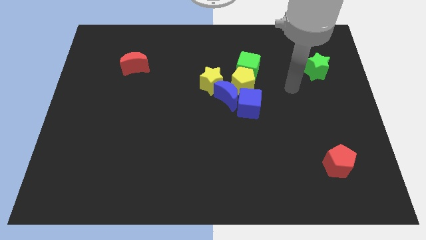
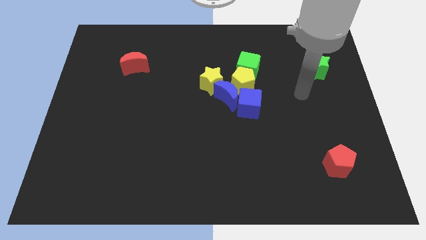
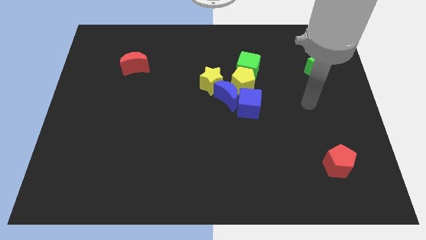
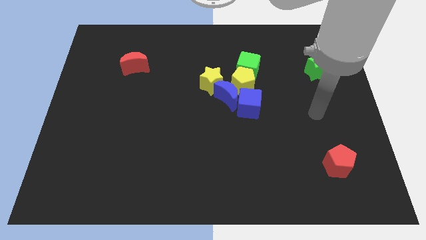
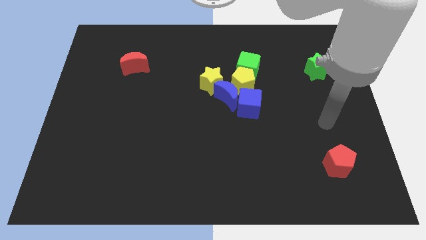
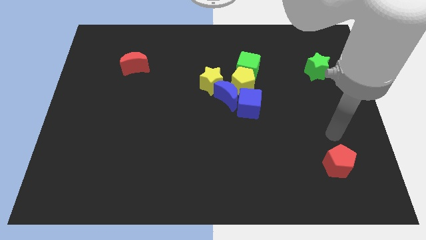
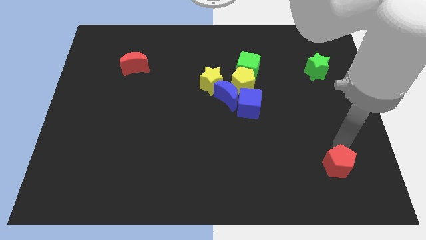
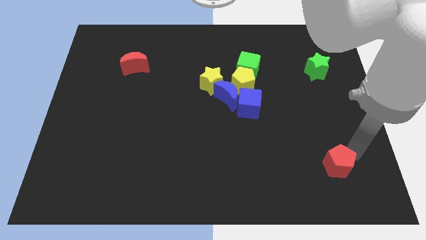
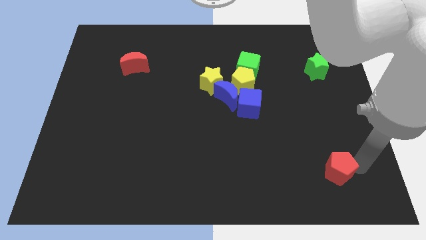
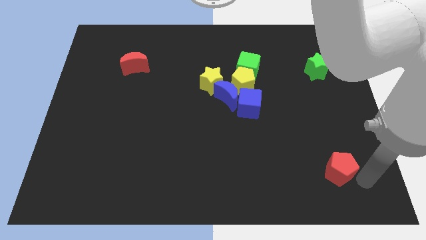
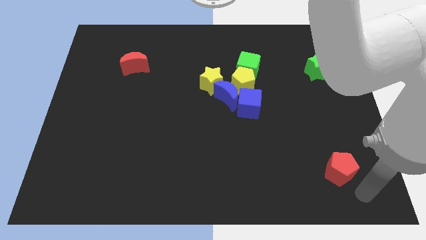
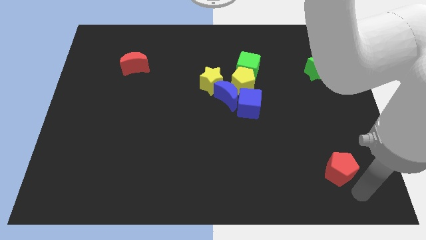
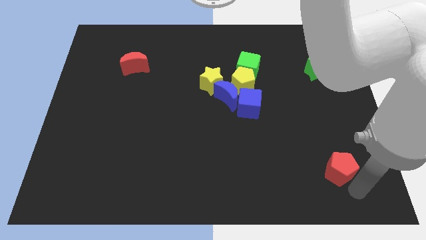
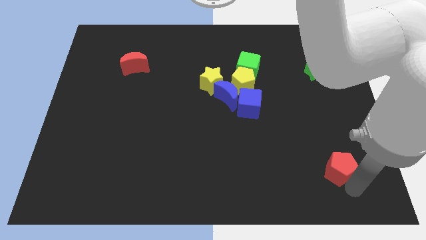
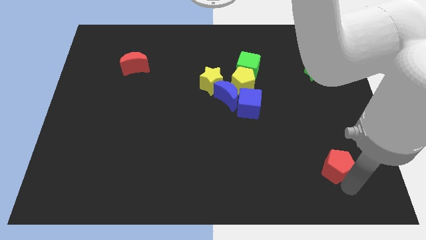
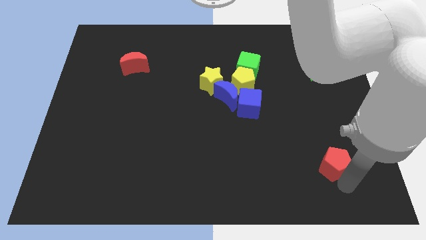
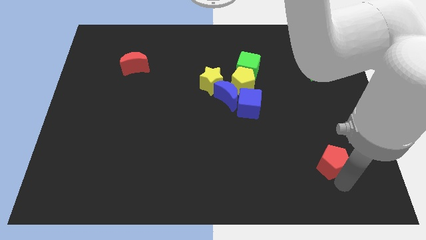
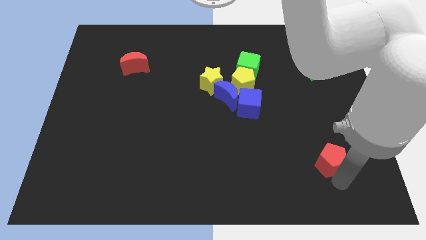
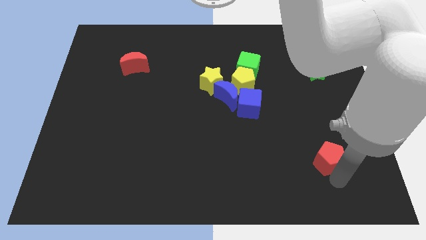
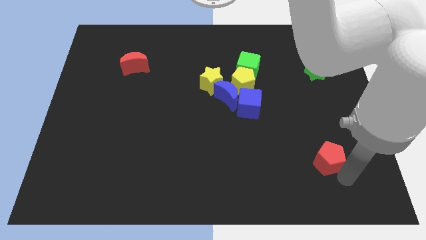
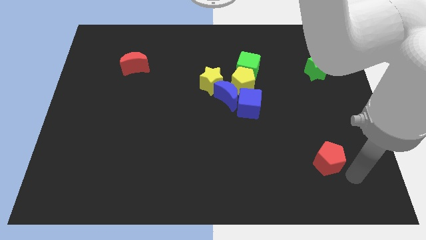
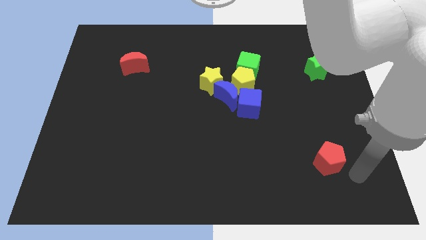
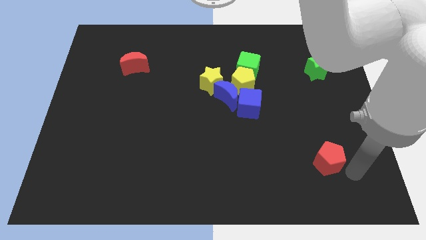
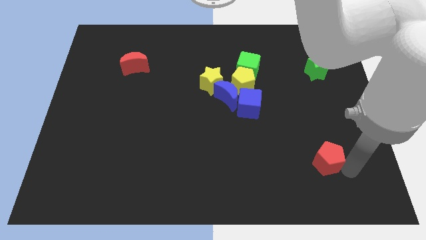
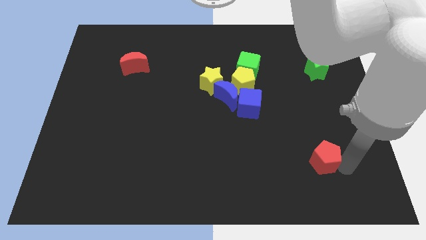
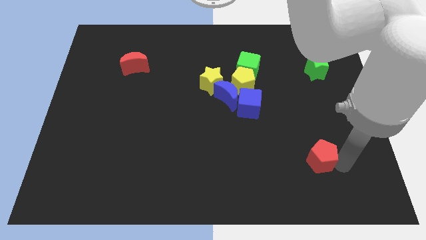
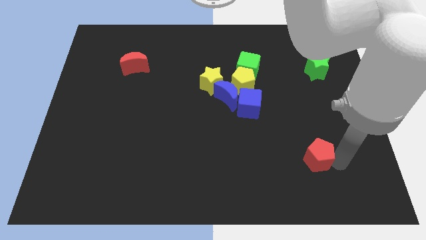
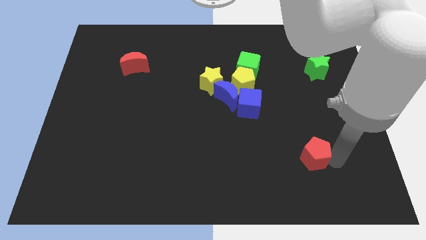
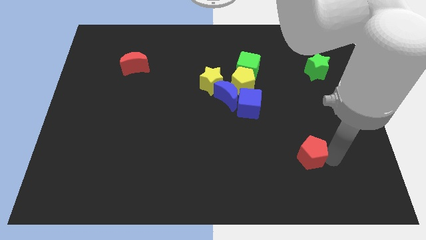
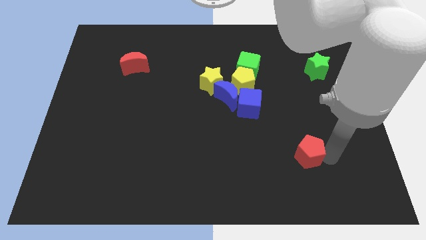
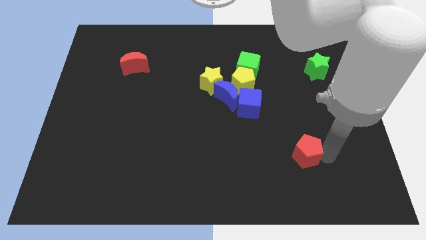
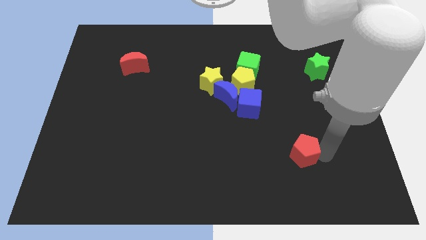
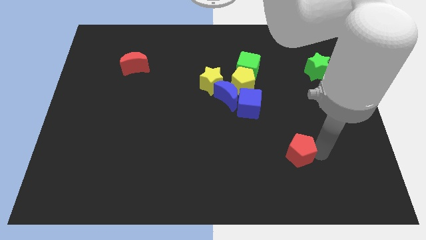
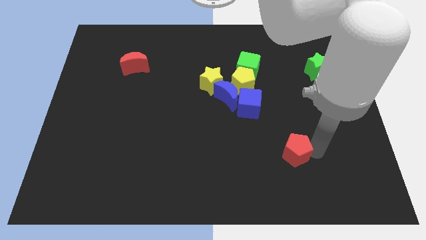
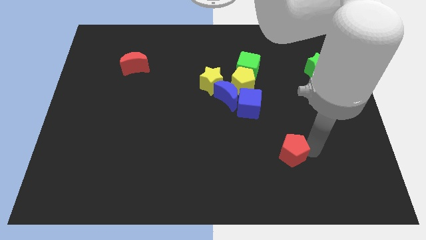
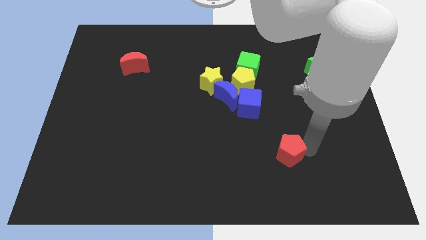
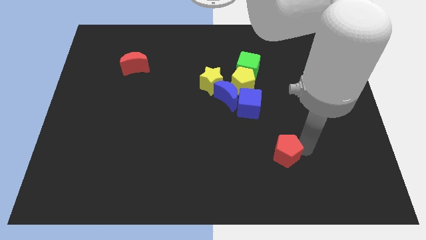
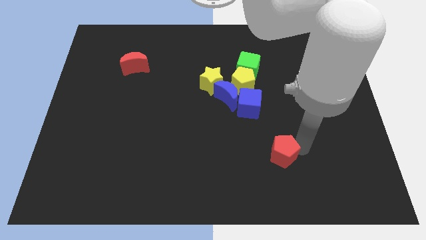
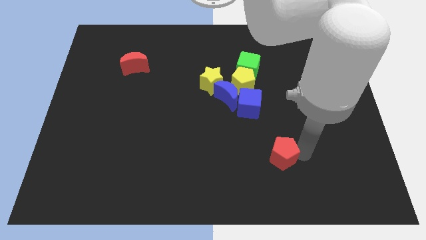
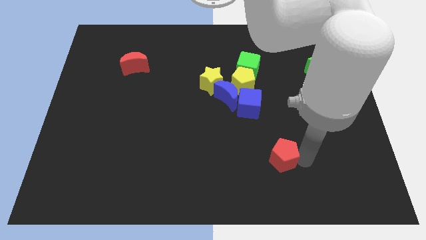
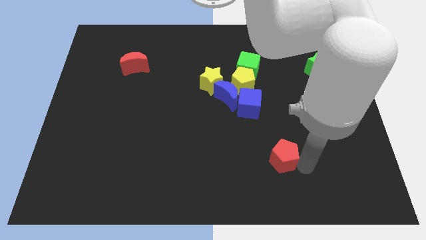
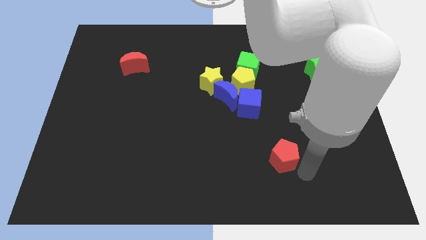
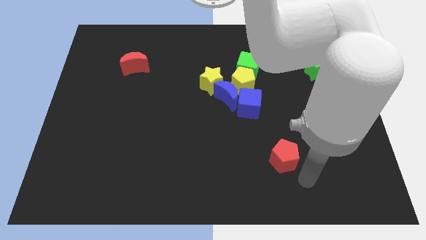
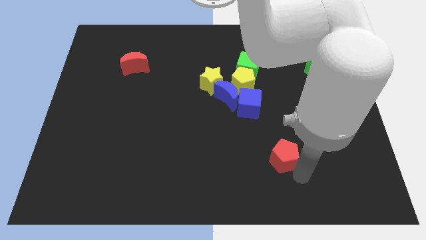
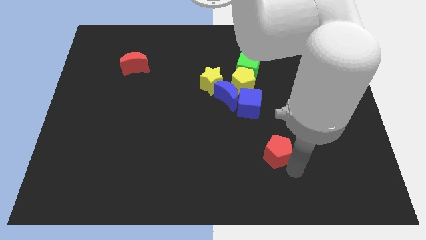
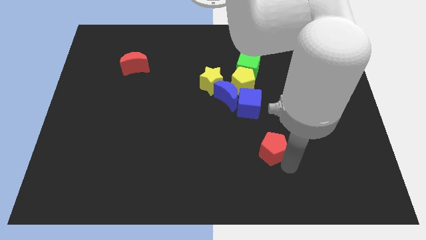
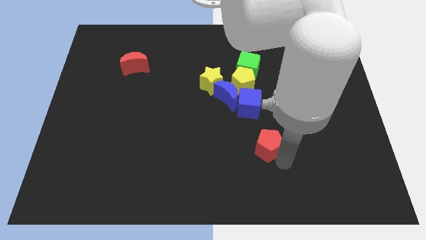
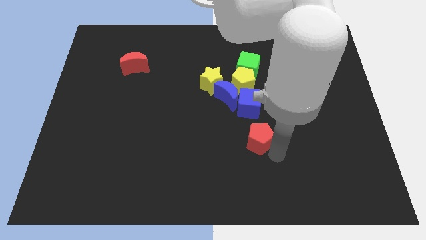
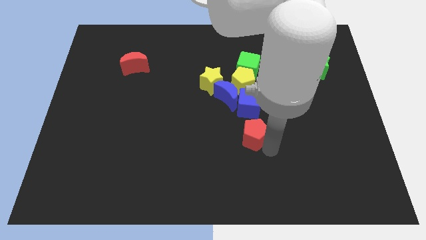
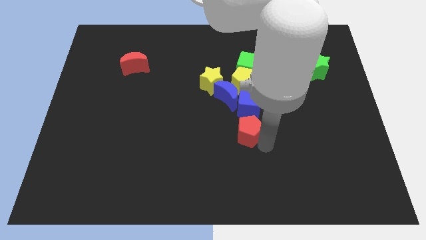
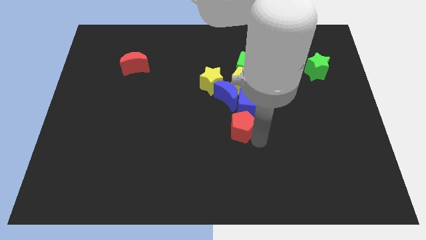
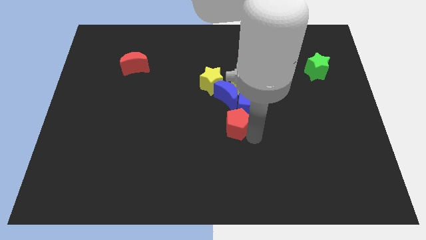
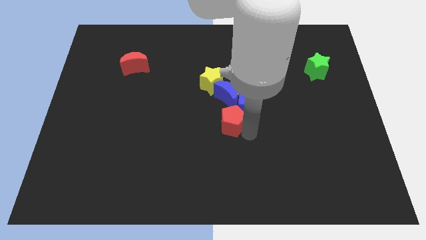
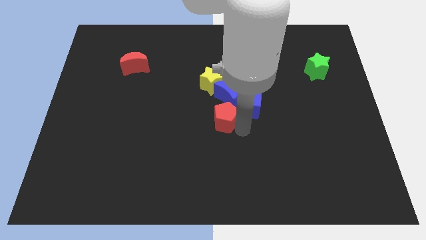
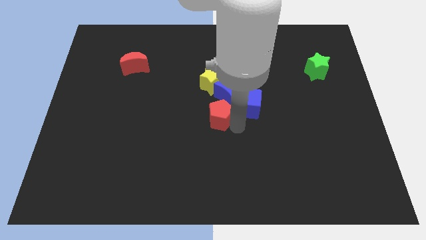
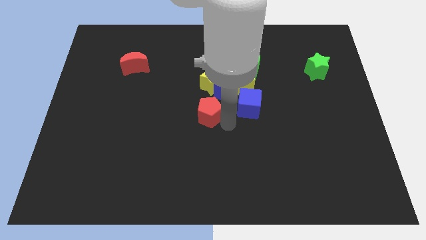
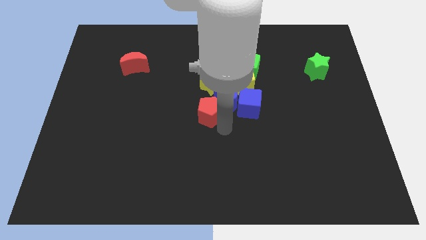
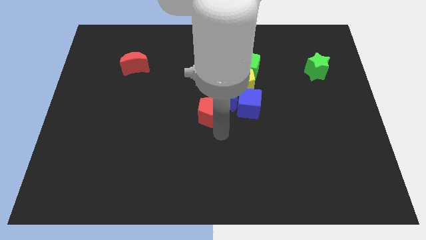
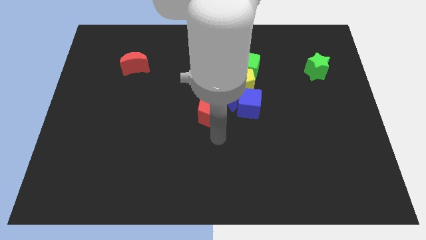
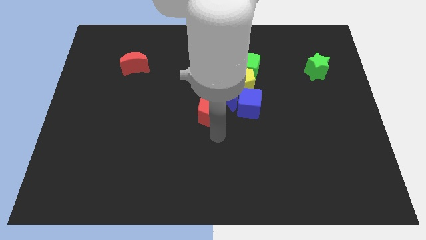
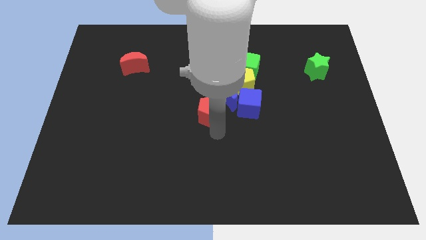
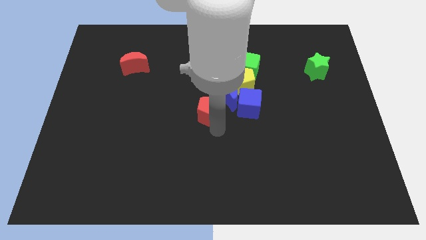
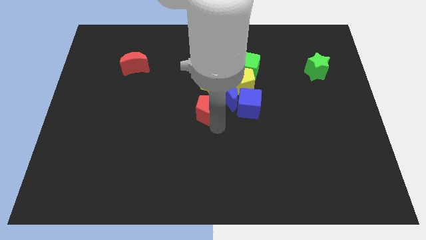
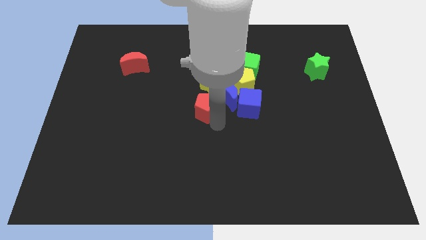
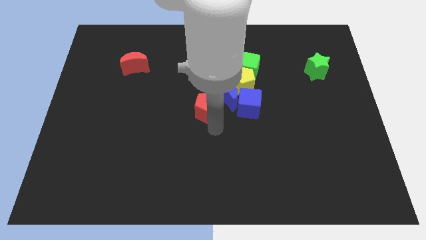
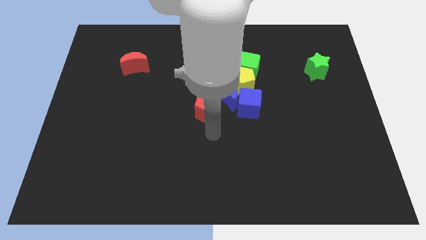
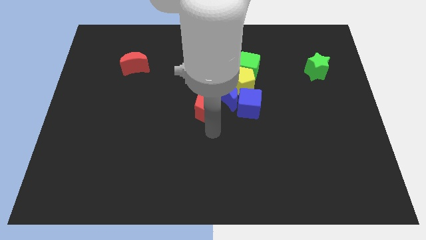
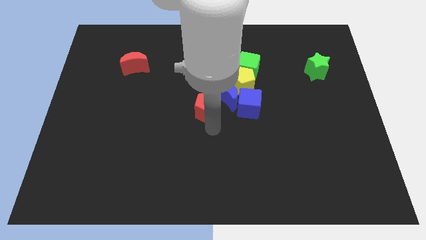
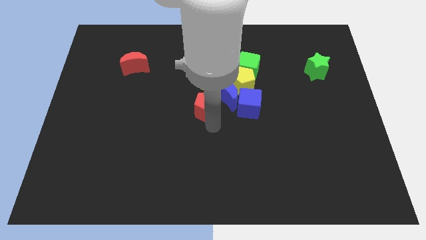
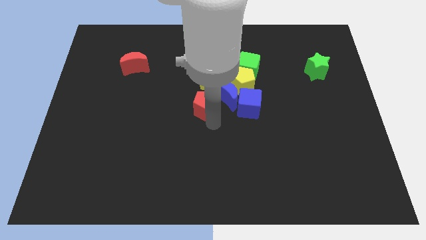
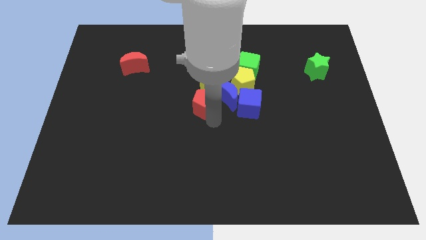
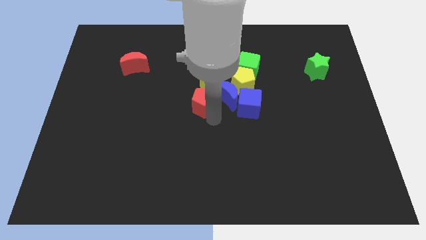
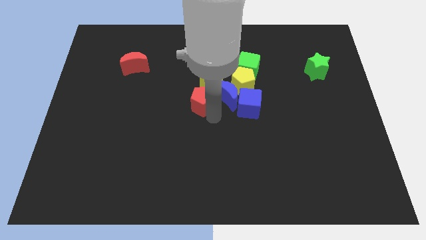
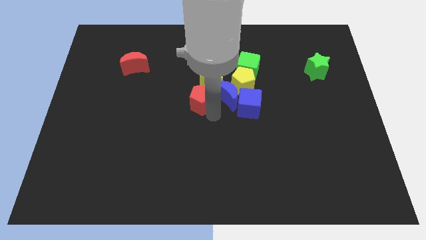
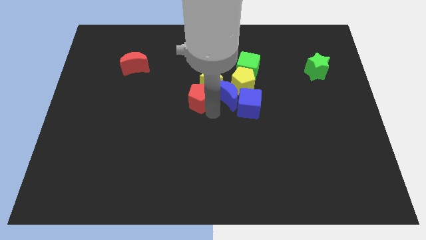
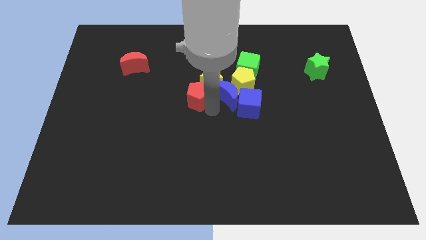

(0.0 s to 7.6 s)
slide the red pentagon to the yellow star
